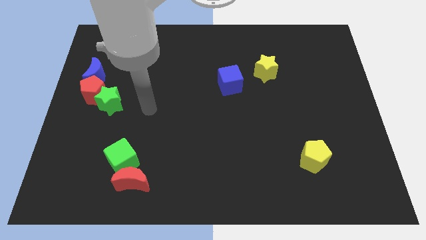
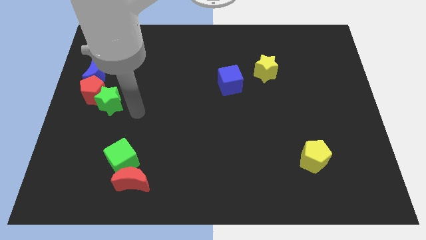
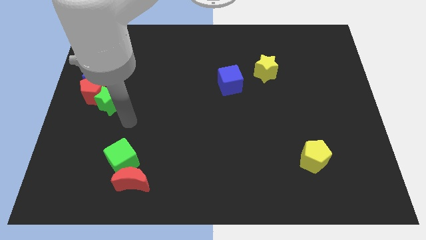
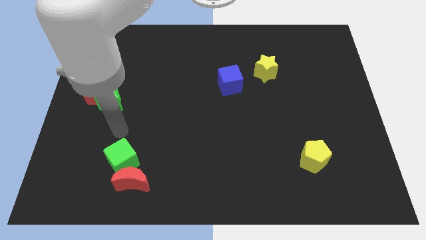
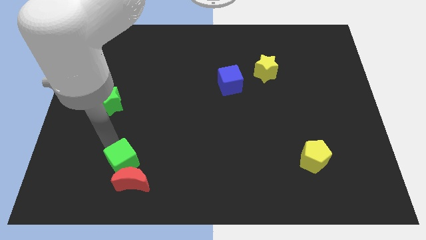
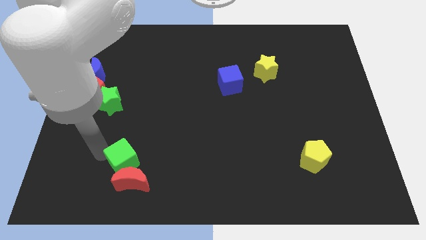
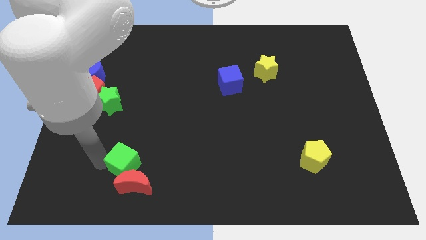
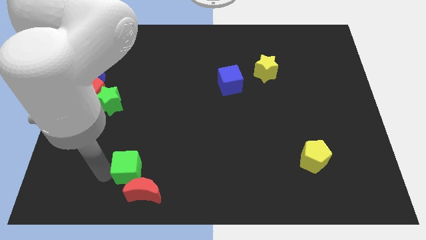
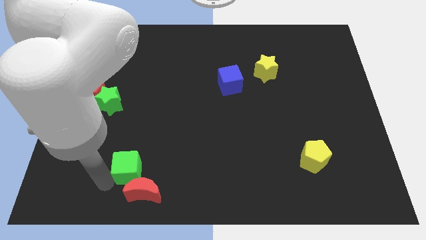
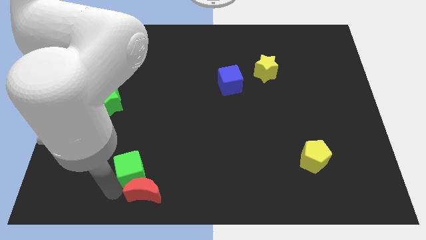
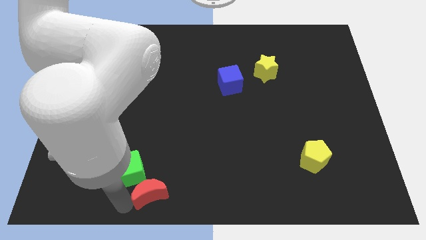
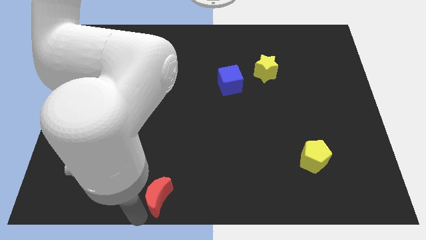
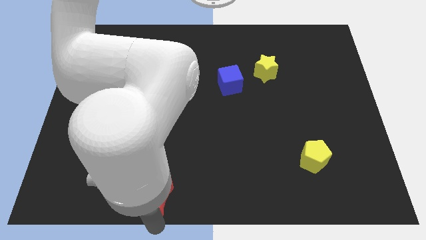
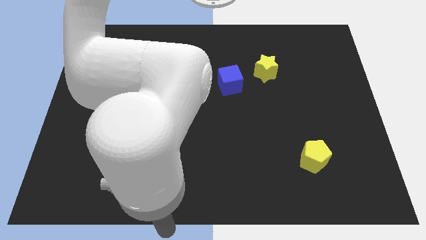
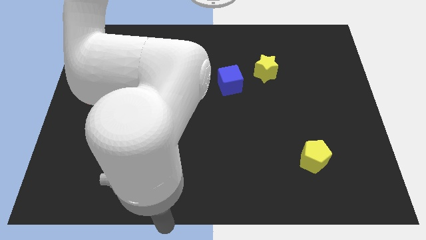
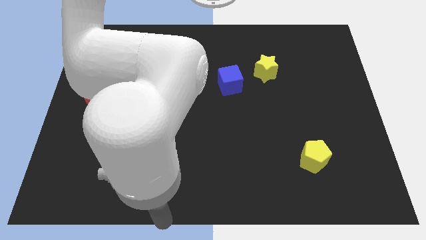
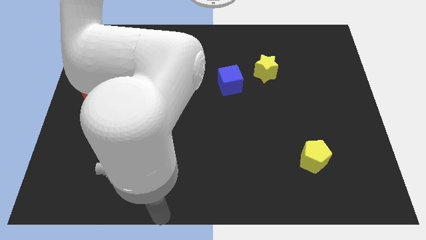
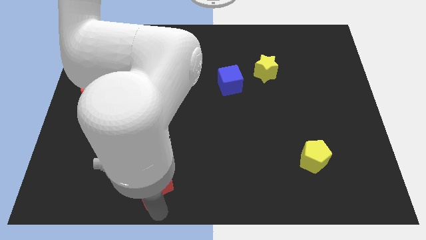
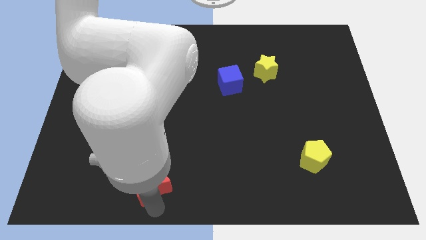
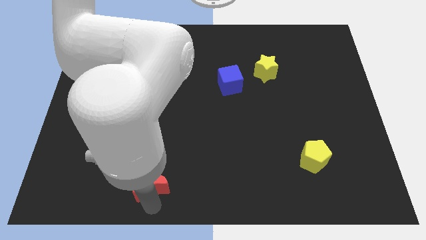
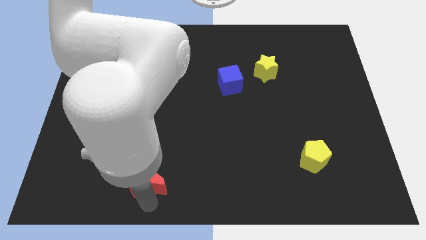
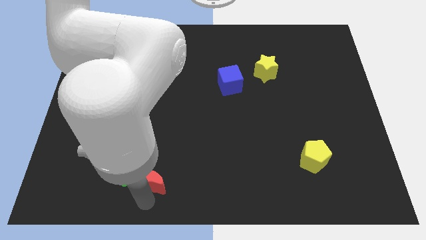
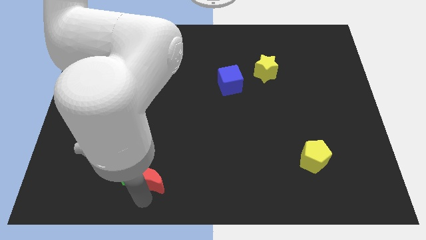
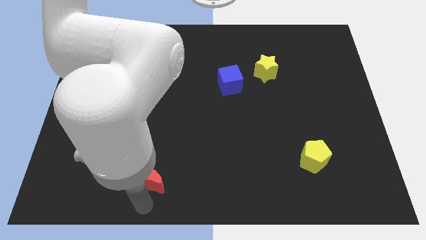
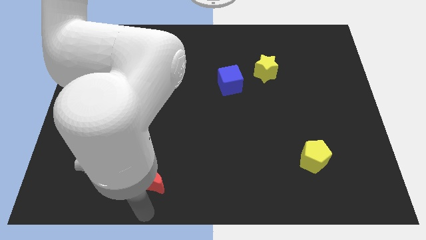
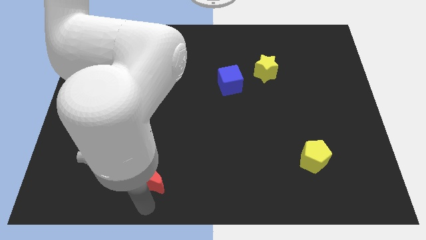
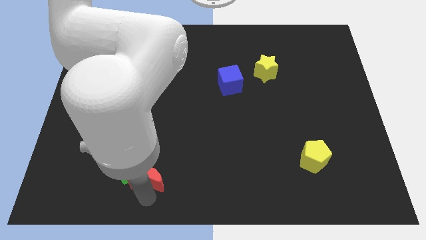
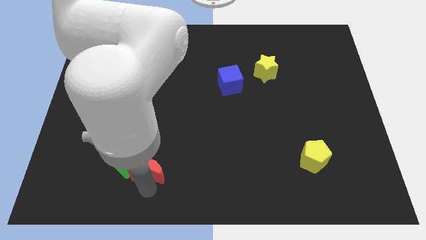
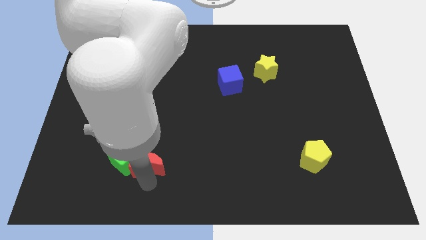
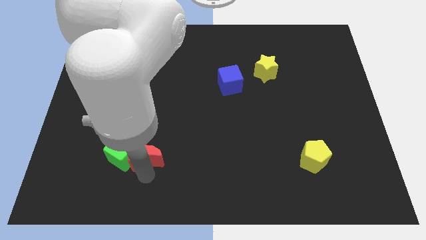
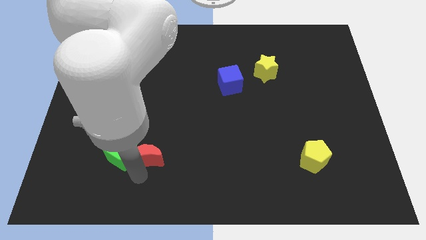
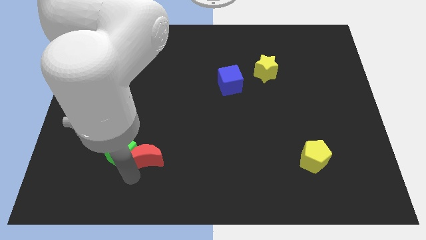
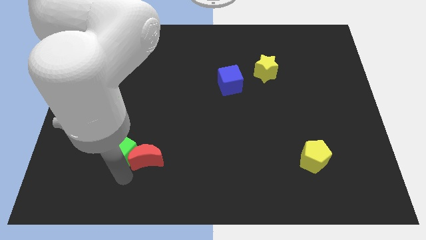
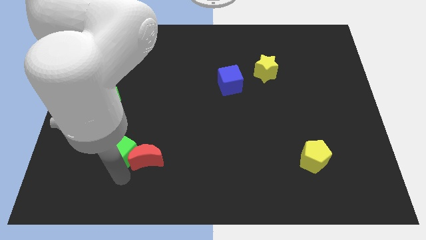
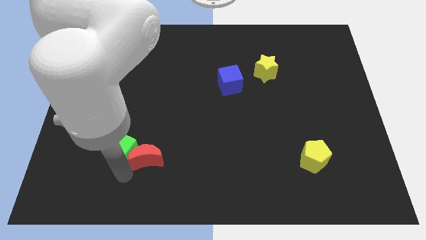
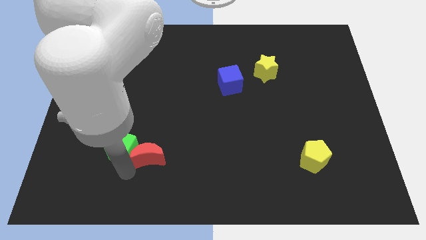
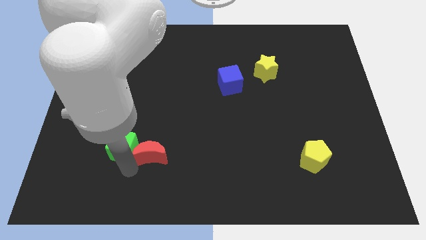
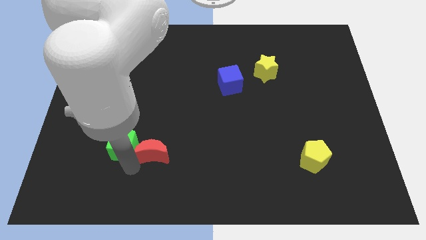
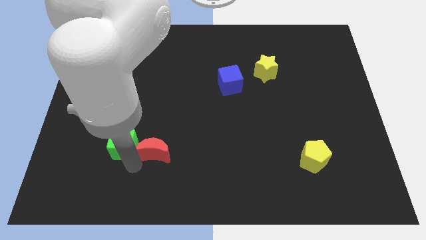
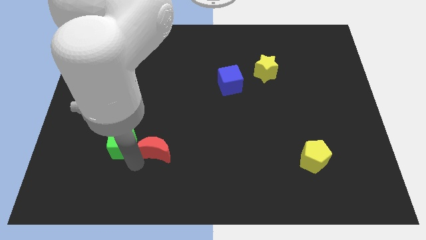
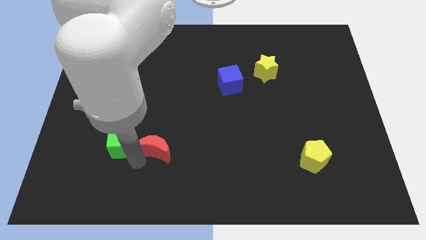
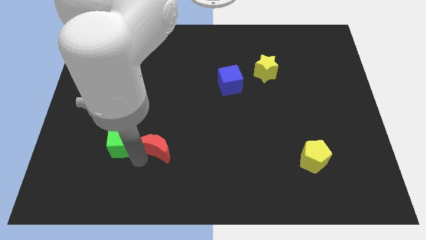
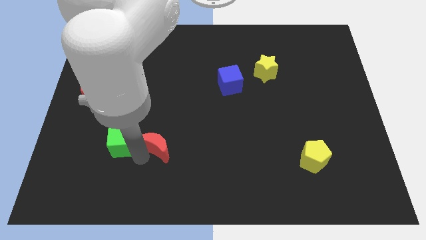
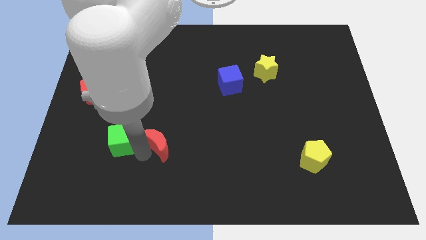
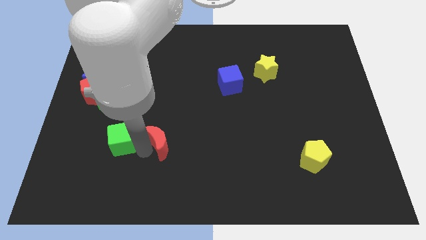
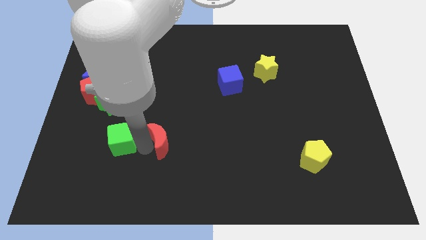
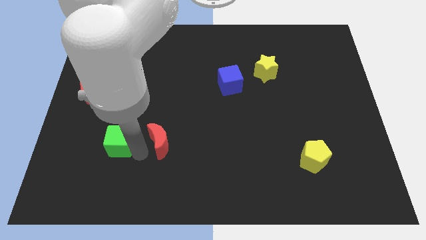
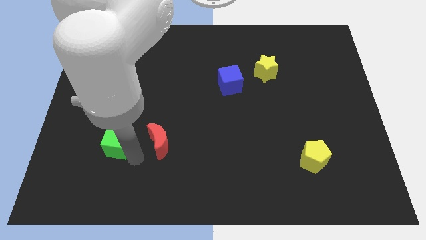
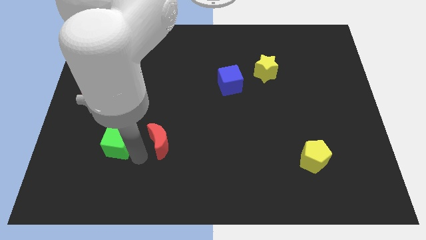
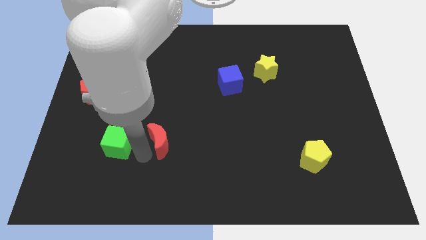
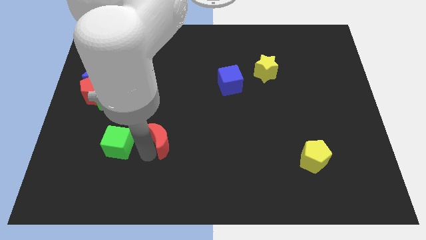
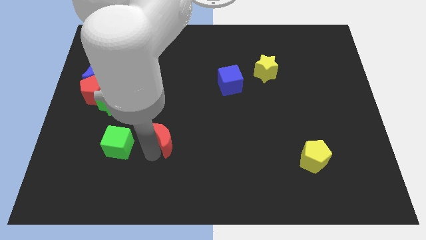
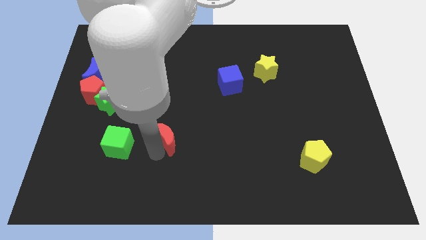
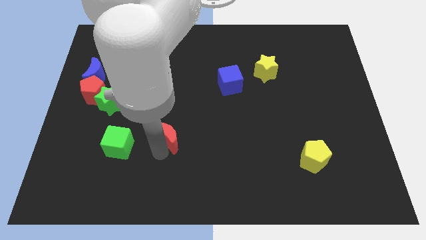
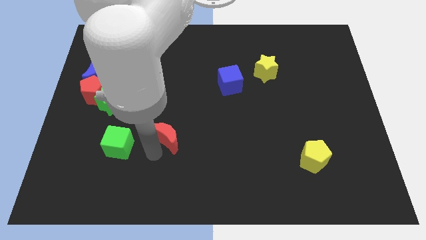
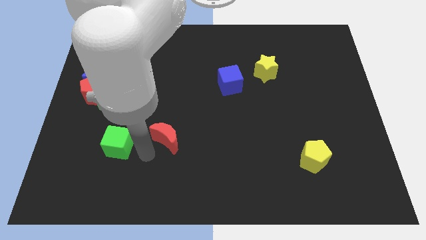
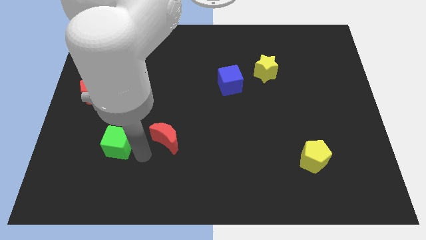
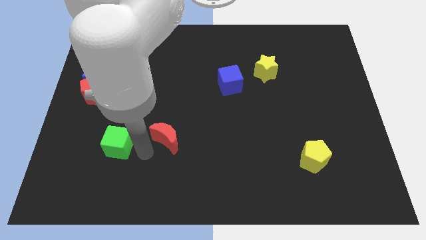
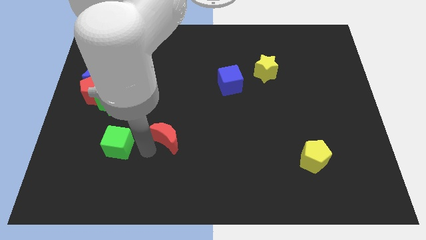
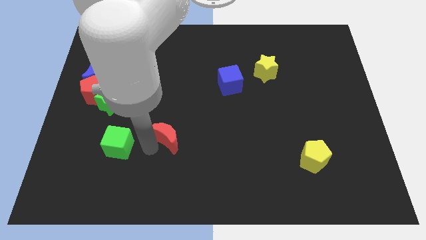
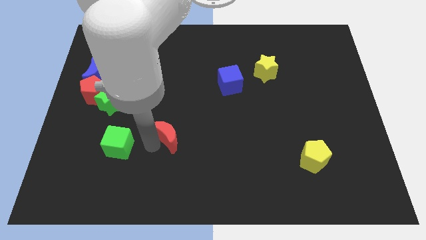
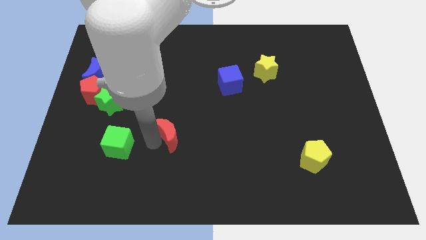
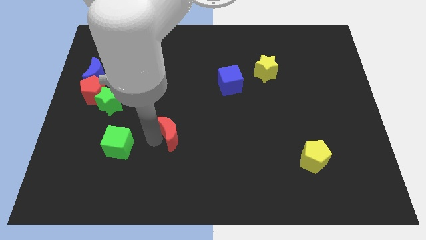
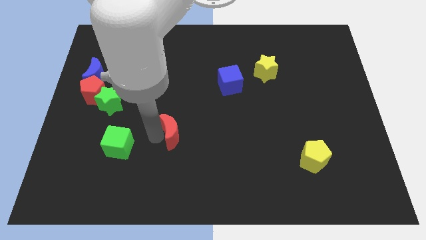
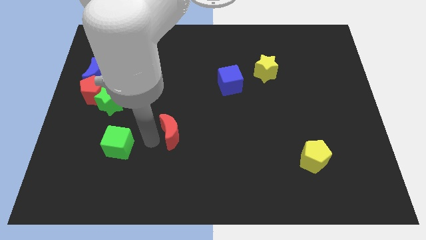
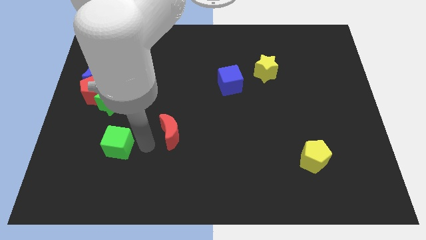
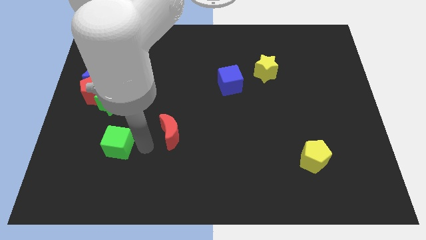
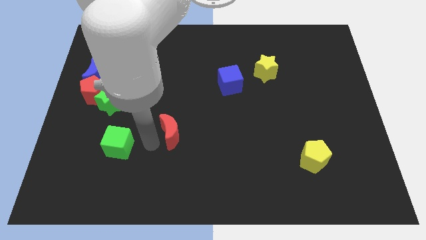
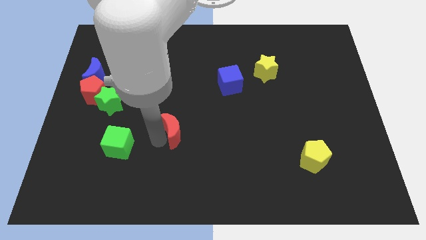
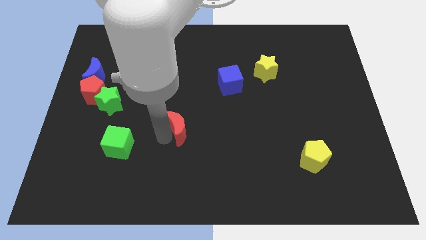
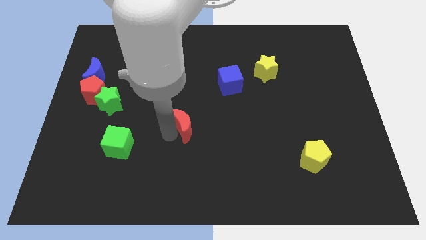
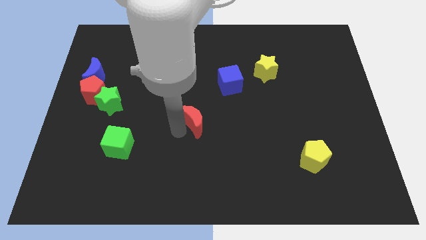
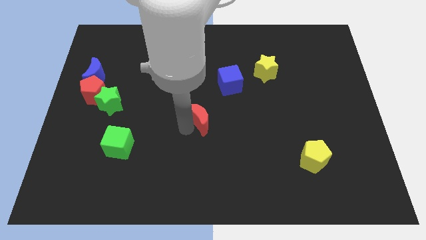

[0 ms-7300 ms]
push the red moon upwards and then right

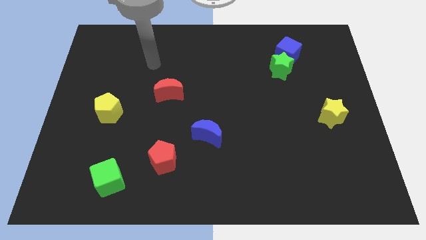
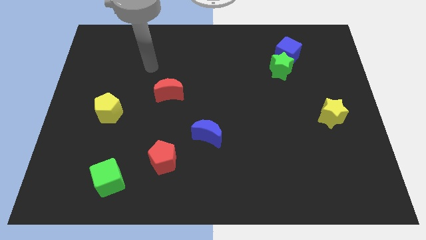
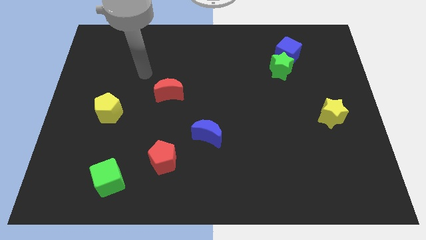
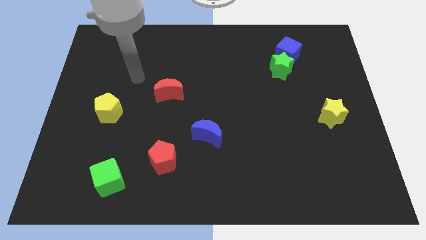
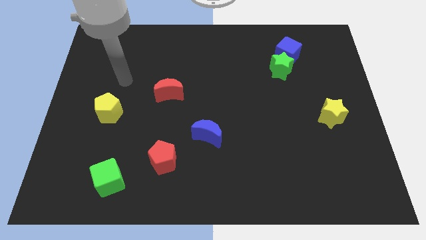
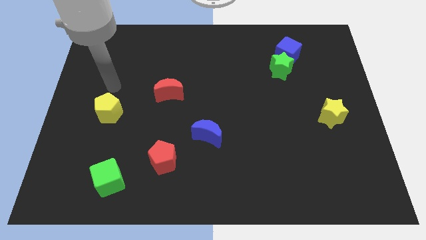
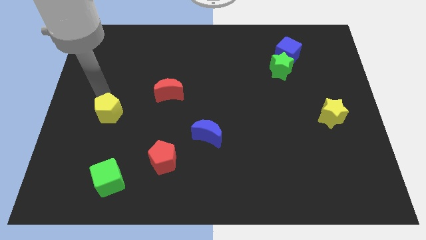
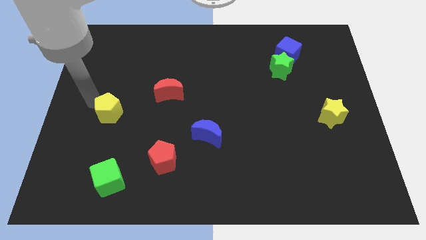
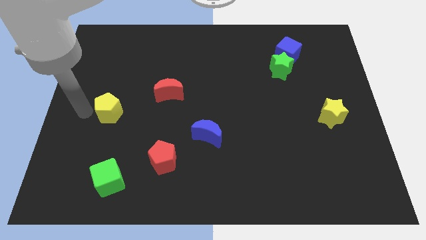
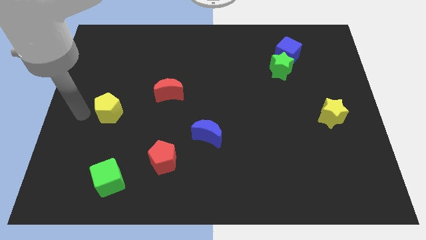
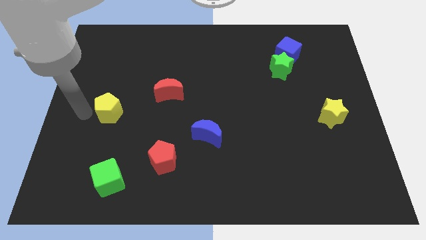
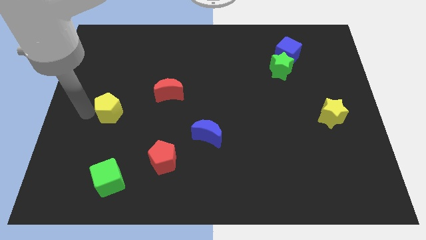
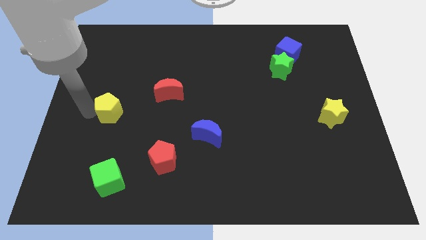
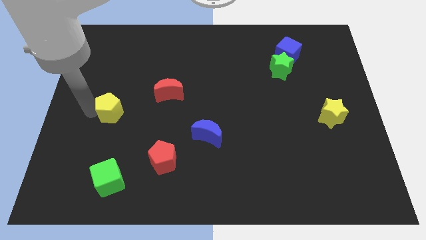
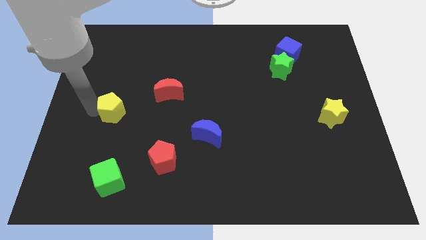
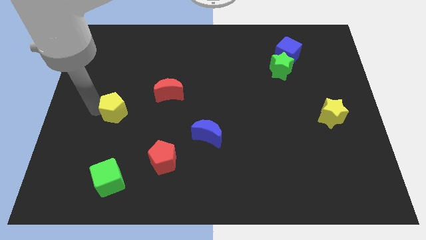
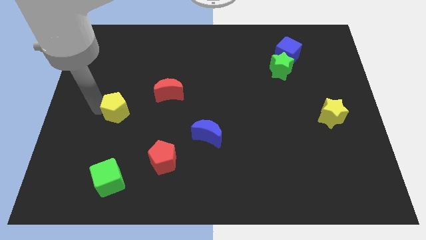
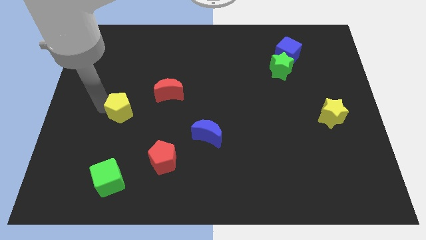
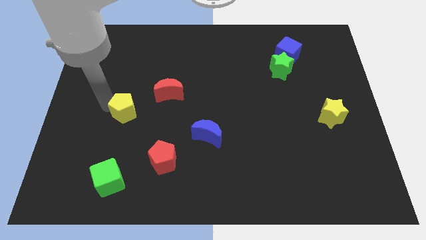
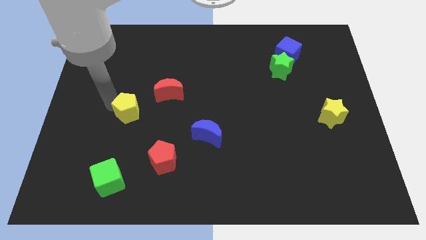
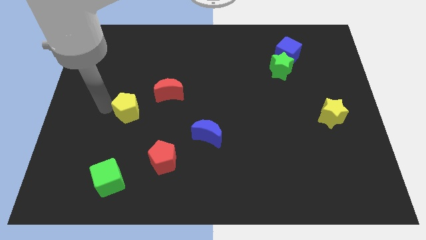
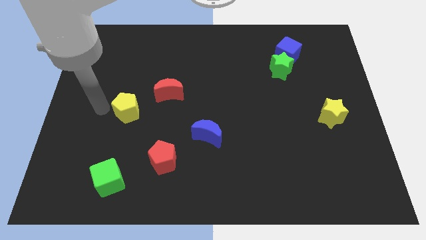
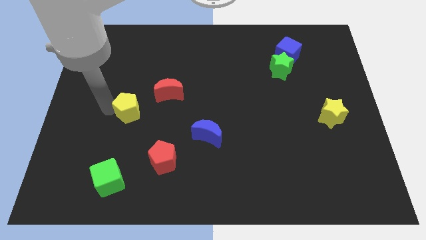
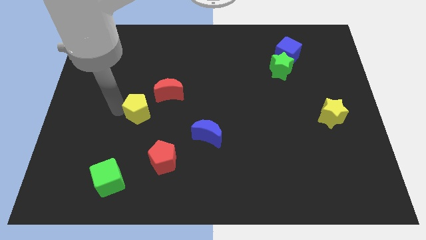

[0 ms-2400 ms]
slide the yellow pentagon a little bit right
